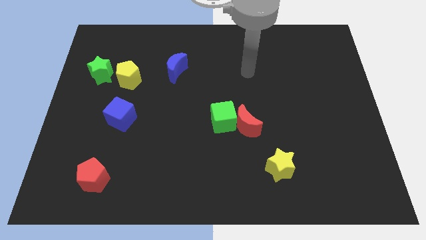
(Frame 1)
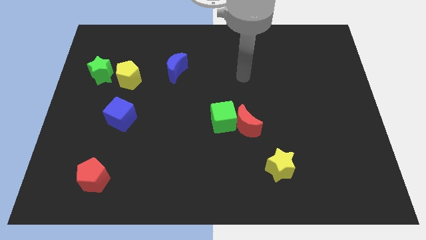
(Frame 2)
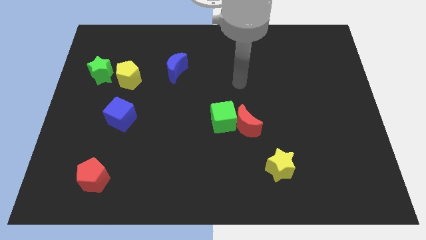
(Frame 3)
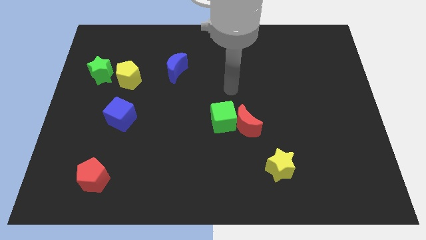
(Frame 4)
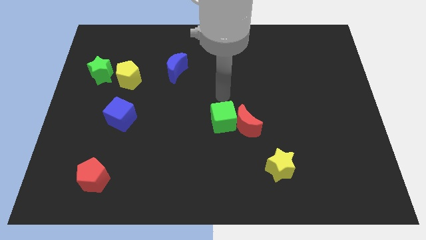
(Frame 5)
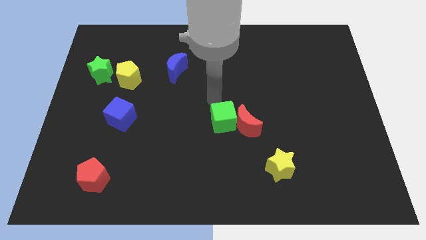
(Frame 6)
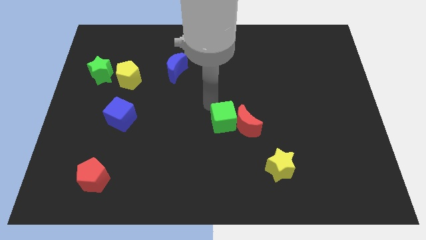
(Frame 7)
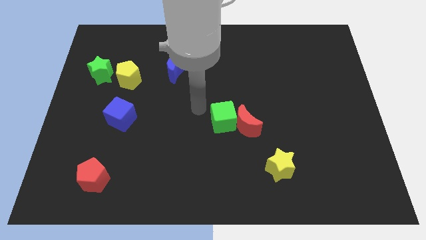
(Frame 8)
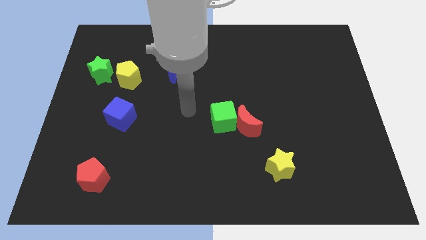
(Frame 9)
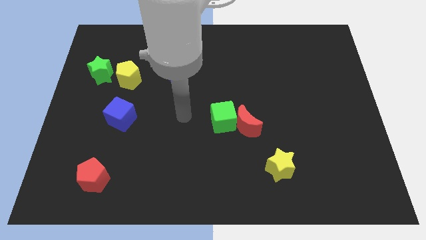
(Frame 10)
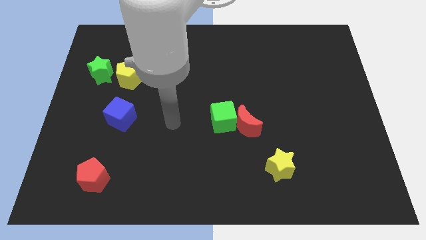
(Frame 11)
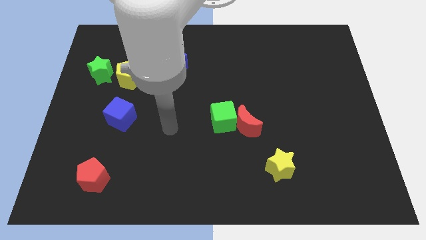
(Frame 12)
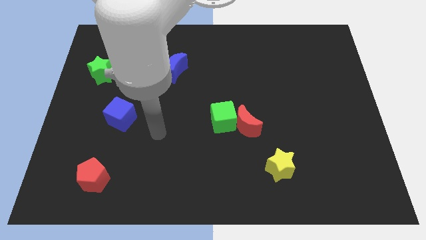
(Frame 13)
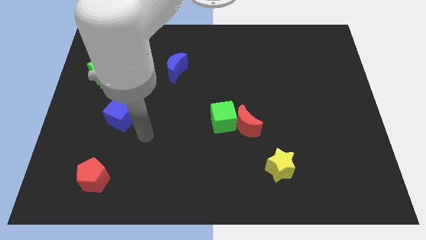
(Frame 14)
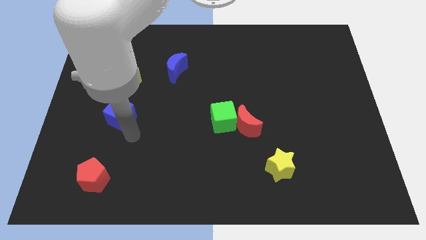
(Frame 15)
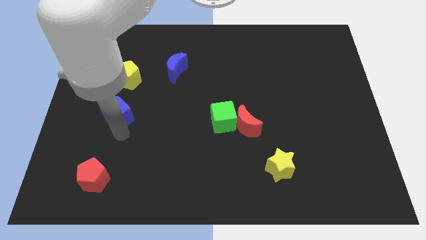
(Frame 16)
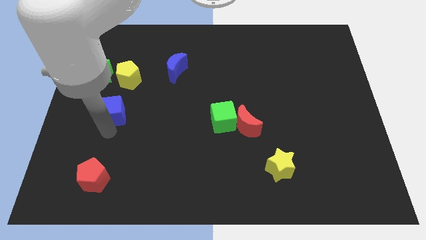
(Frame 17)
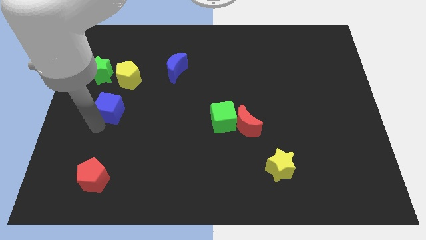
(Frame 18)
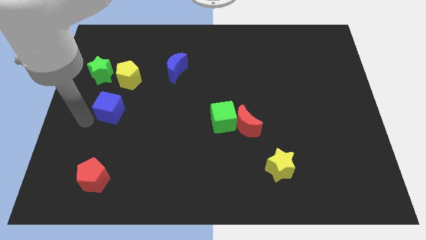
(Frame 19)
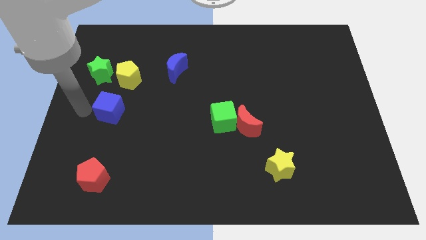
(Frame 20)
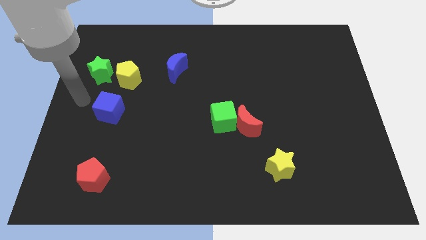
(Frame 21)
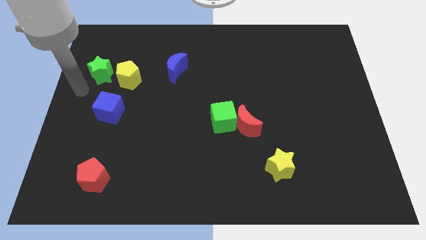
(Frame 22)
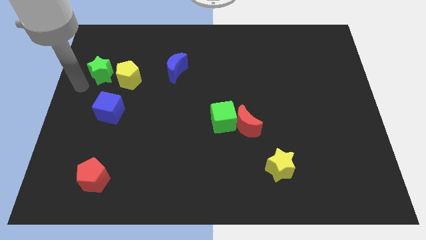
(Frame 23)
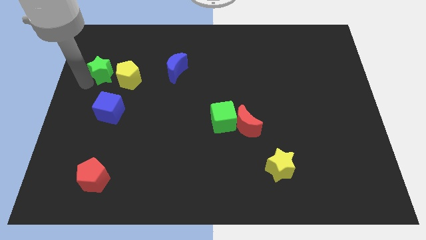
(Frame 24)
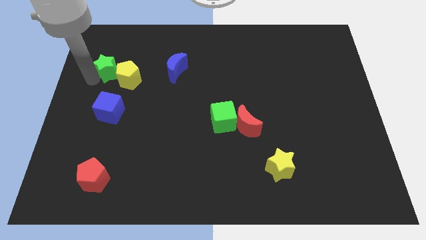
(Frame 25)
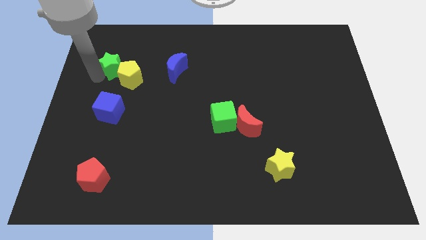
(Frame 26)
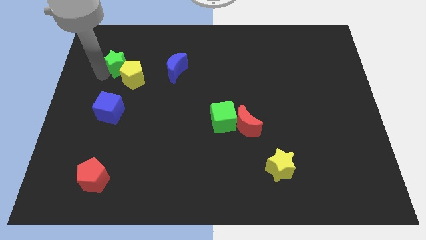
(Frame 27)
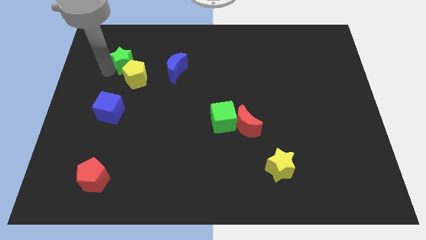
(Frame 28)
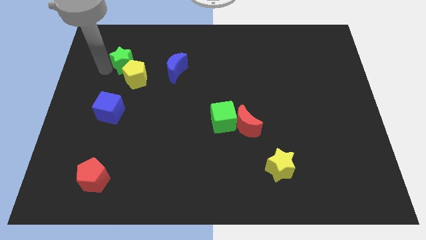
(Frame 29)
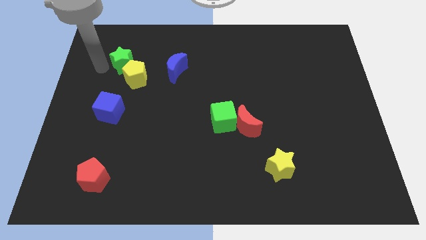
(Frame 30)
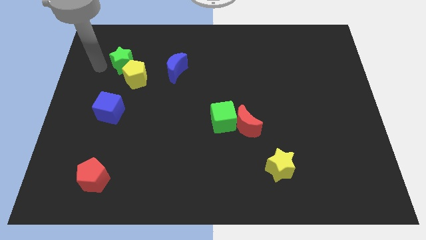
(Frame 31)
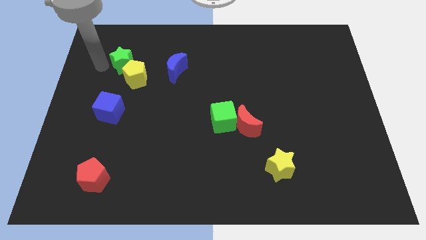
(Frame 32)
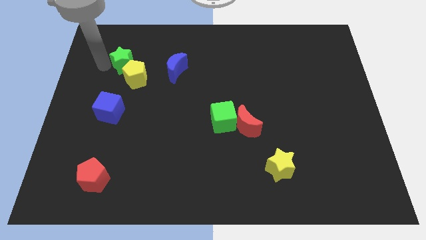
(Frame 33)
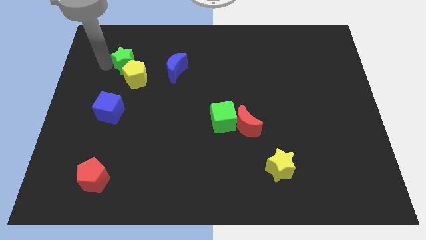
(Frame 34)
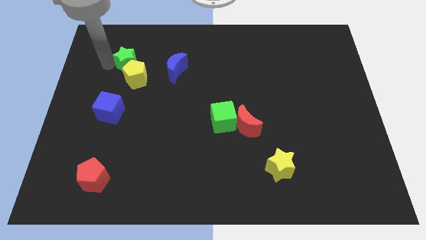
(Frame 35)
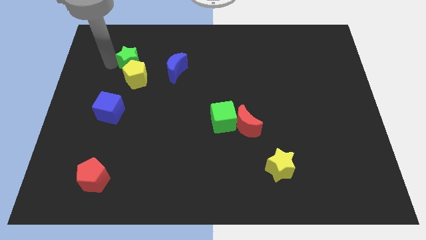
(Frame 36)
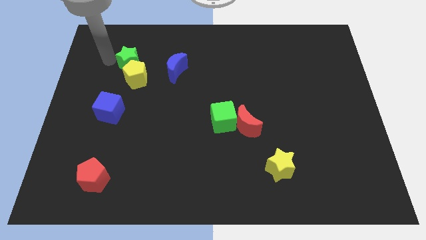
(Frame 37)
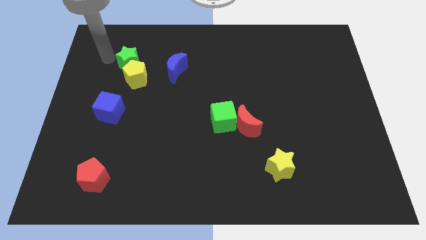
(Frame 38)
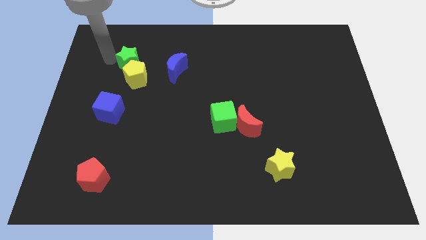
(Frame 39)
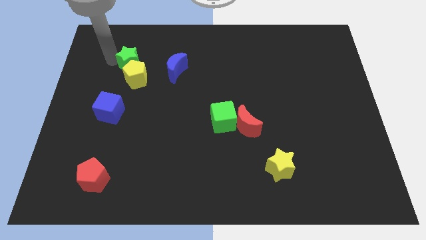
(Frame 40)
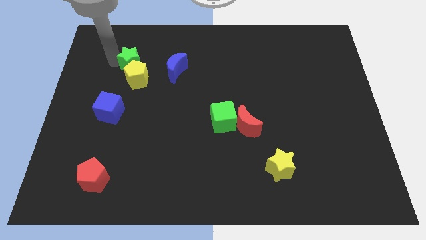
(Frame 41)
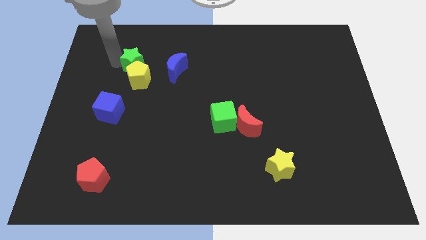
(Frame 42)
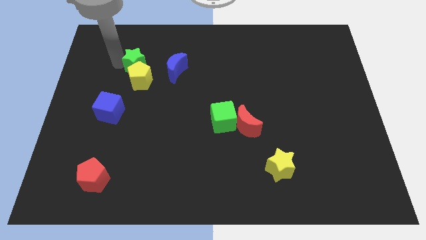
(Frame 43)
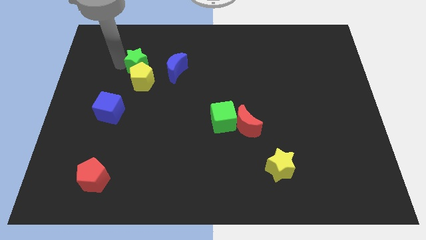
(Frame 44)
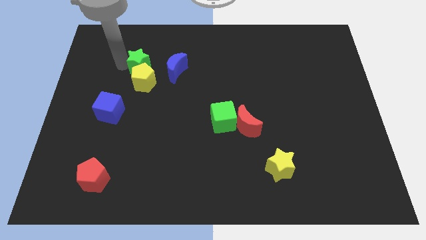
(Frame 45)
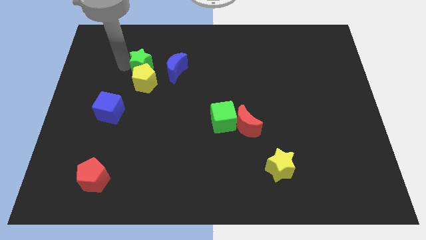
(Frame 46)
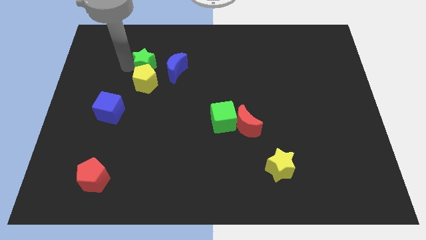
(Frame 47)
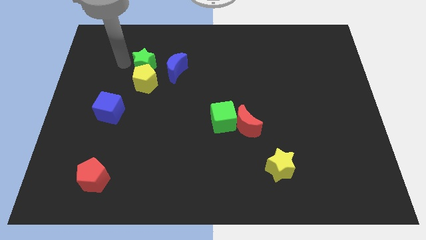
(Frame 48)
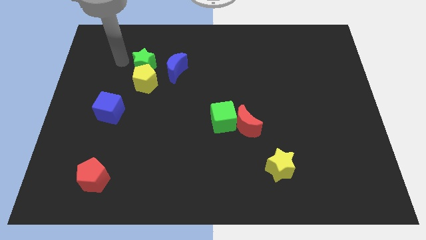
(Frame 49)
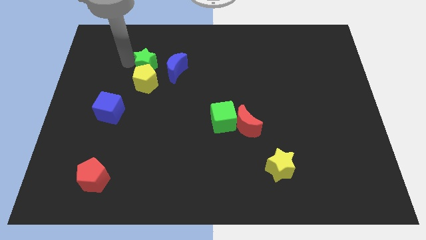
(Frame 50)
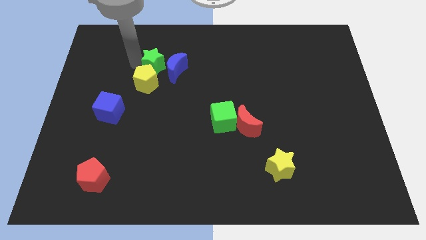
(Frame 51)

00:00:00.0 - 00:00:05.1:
put the green star next to the blue moon

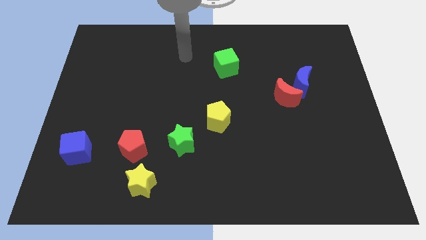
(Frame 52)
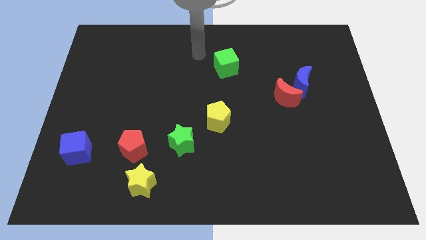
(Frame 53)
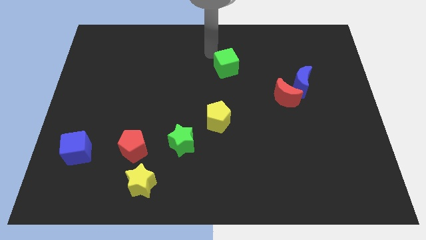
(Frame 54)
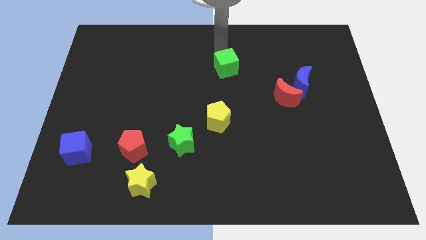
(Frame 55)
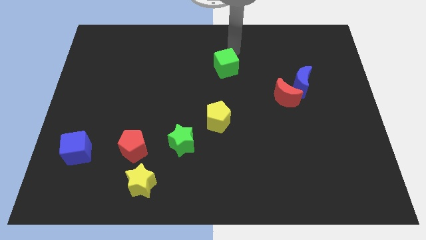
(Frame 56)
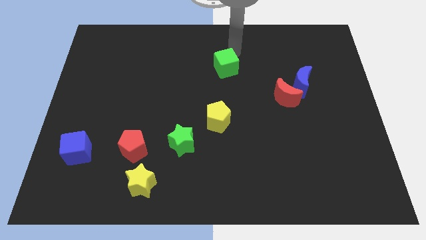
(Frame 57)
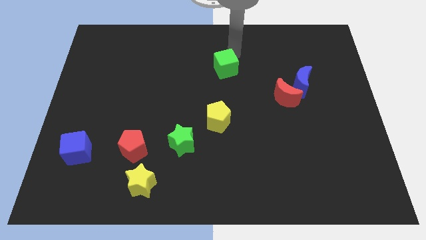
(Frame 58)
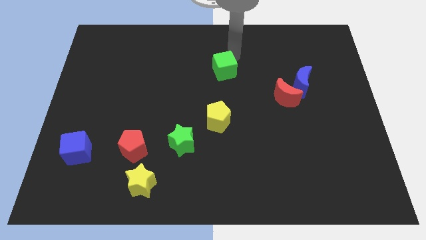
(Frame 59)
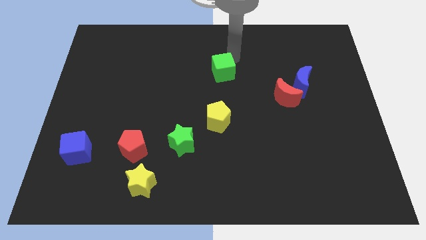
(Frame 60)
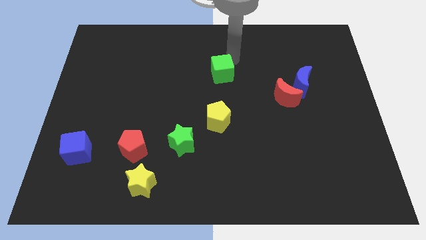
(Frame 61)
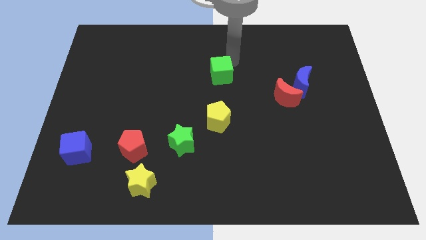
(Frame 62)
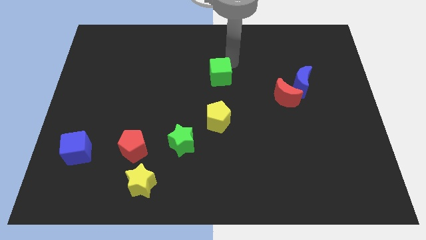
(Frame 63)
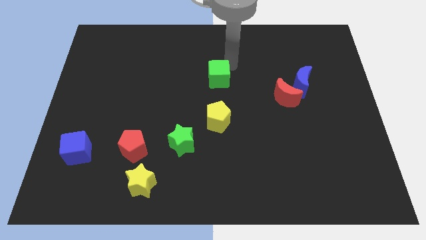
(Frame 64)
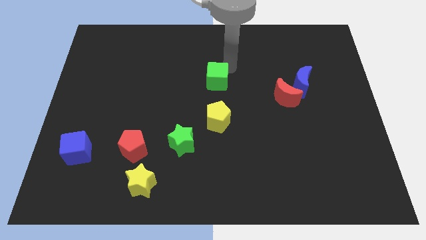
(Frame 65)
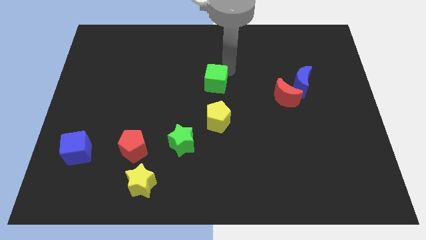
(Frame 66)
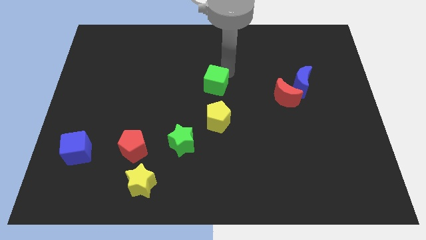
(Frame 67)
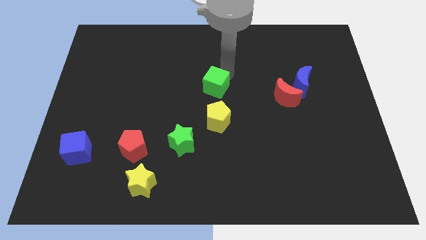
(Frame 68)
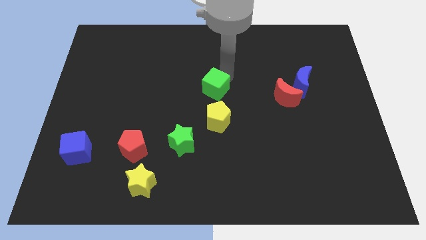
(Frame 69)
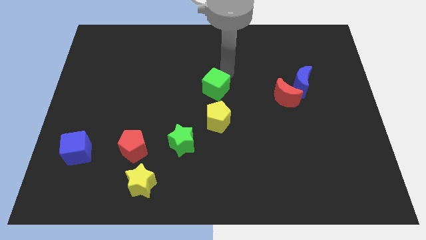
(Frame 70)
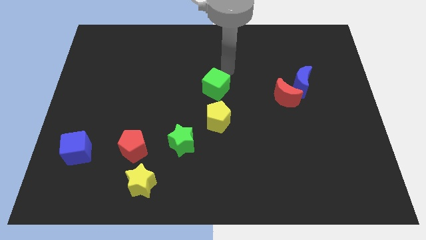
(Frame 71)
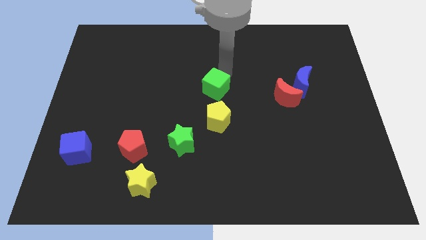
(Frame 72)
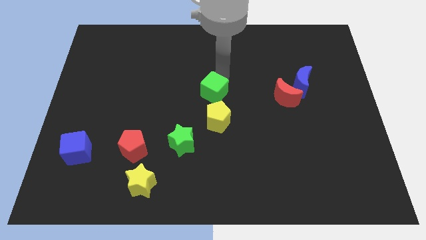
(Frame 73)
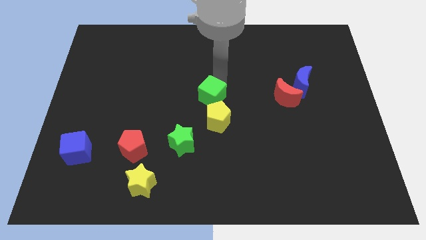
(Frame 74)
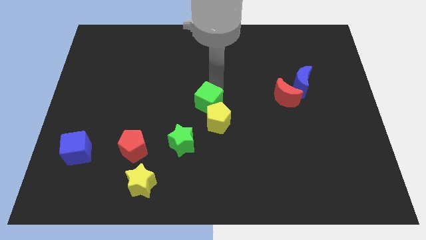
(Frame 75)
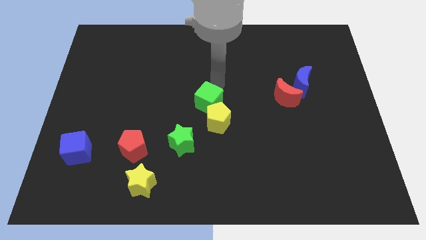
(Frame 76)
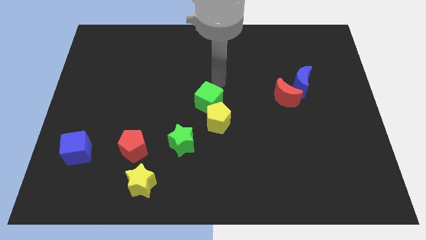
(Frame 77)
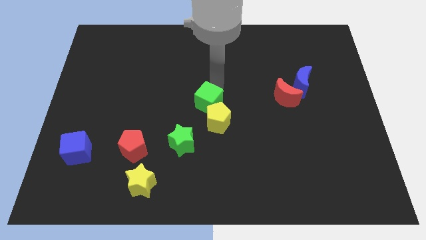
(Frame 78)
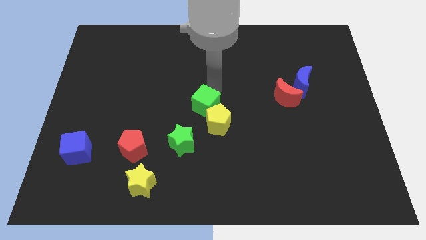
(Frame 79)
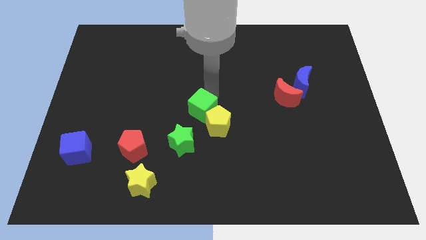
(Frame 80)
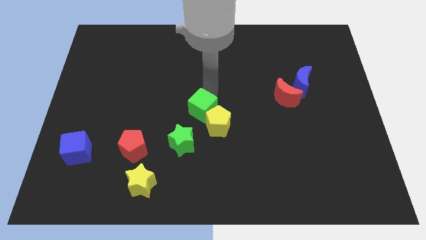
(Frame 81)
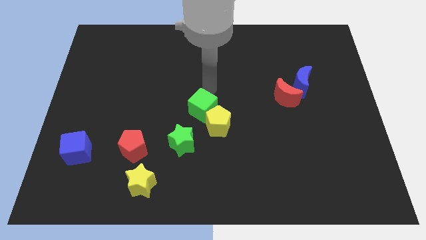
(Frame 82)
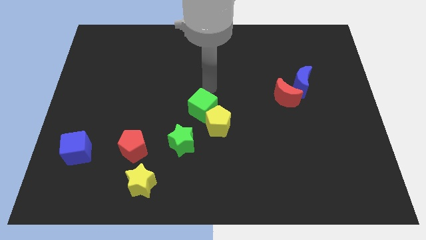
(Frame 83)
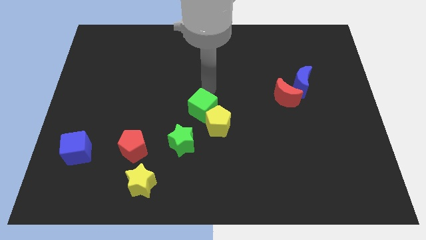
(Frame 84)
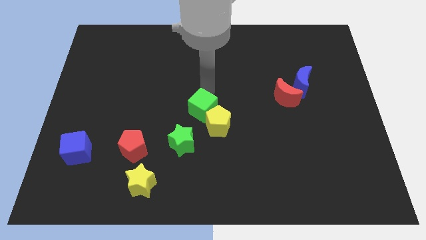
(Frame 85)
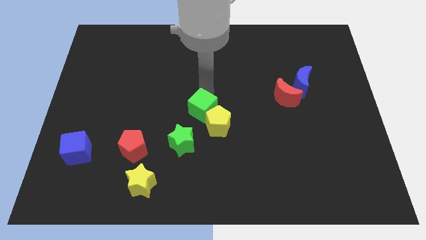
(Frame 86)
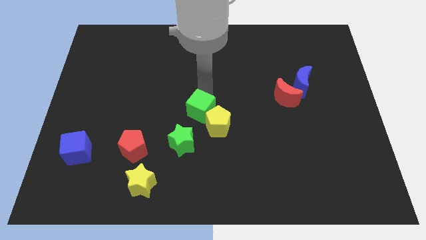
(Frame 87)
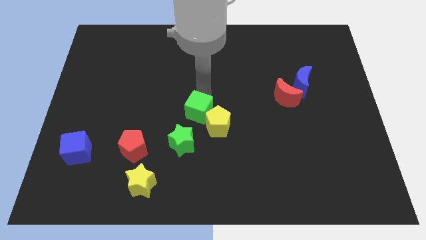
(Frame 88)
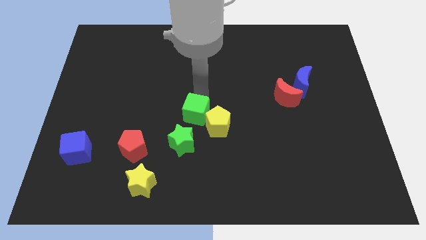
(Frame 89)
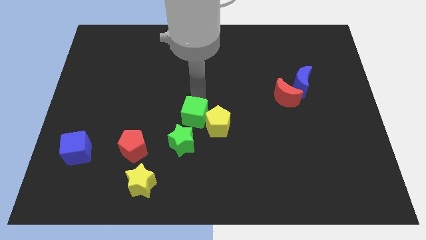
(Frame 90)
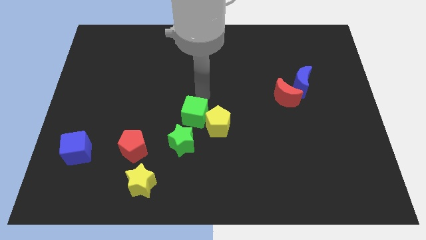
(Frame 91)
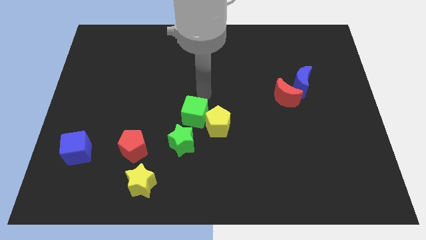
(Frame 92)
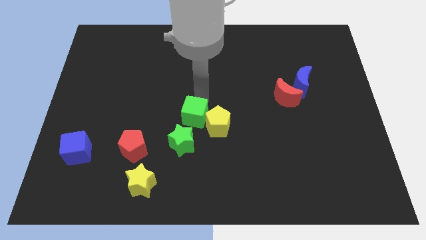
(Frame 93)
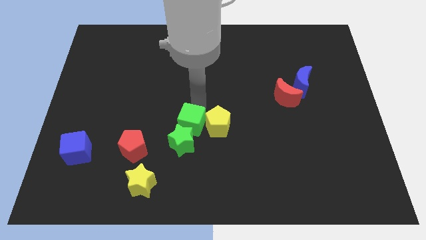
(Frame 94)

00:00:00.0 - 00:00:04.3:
push the green cube next to the green star
